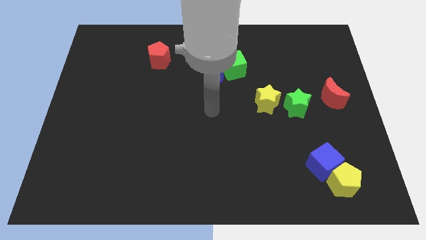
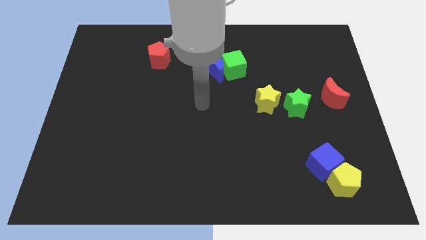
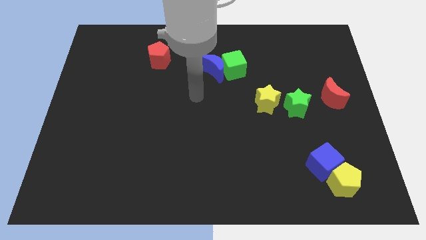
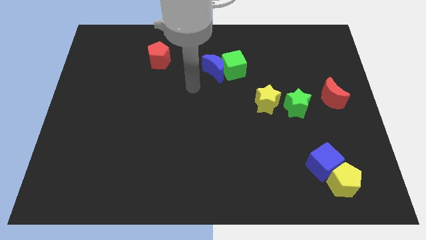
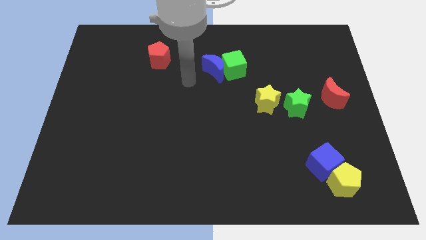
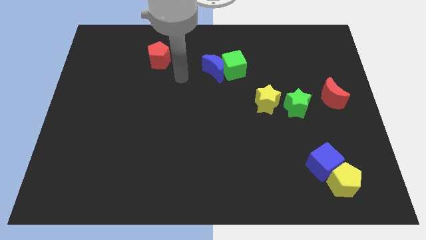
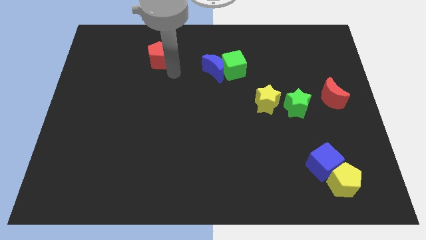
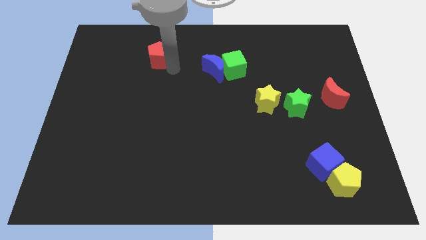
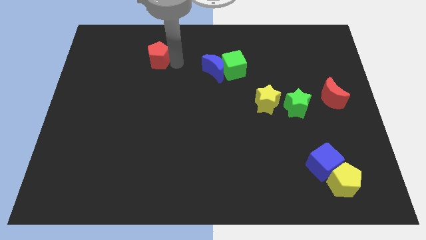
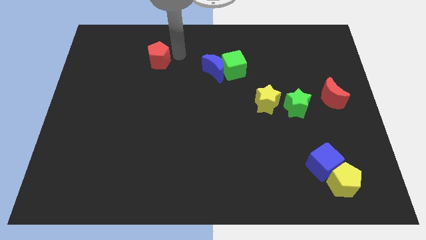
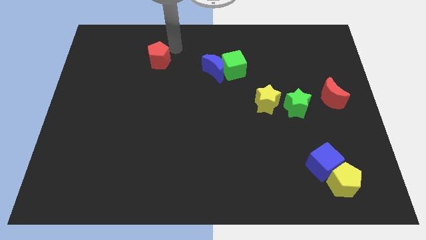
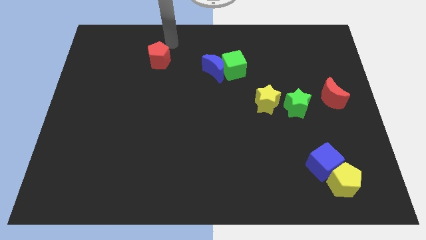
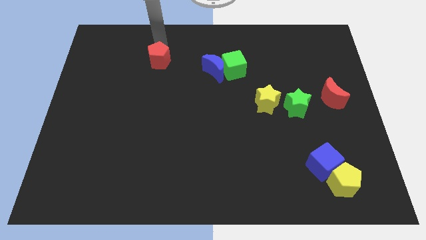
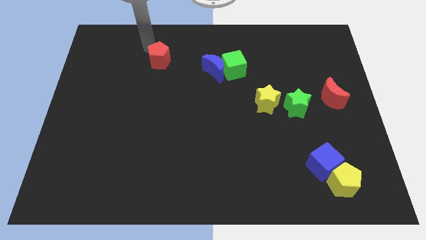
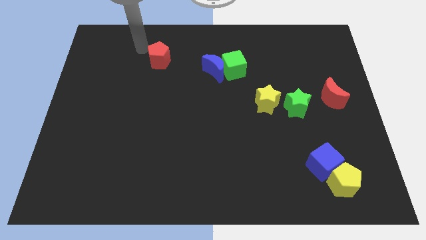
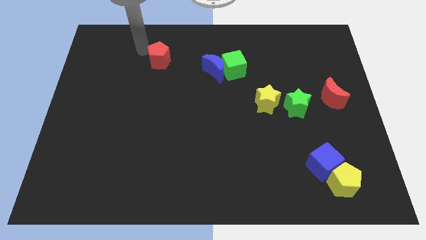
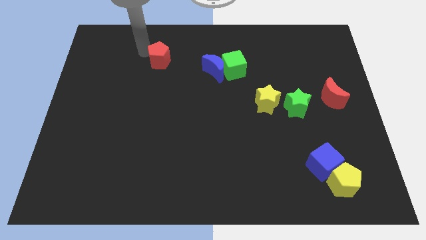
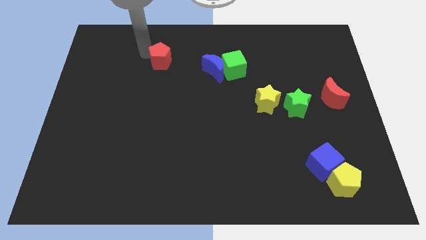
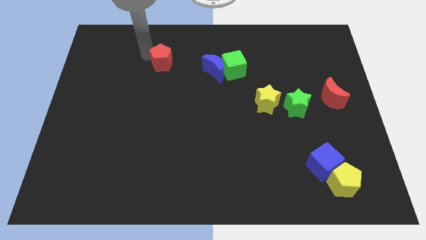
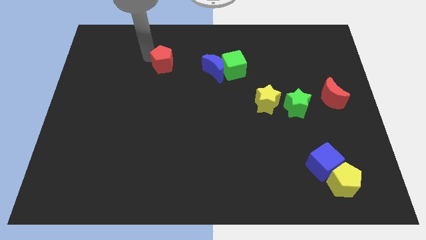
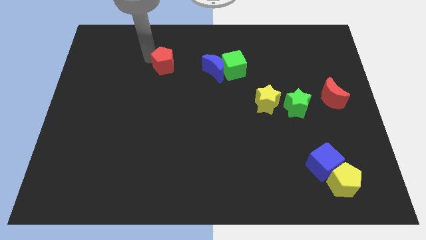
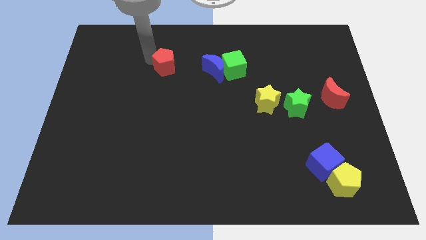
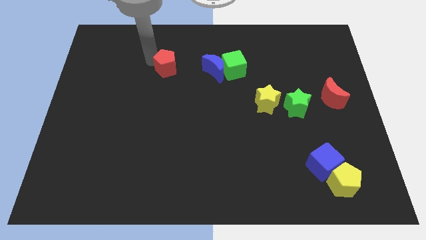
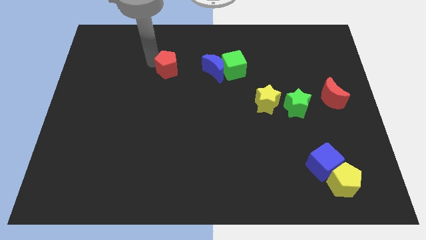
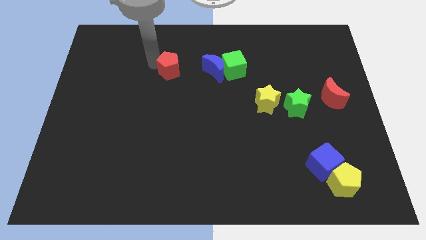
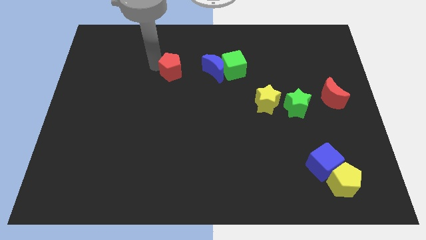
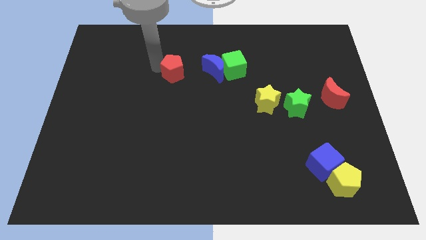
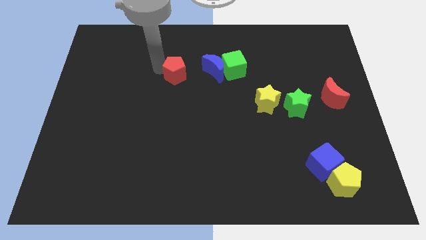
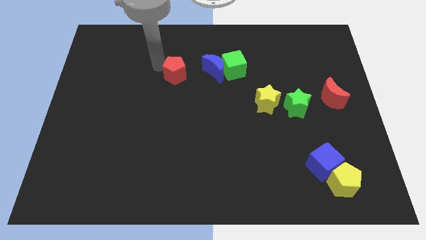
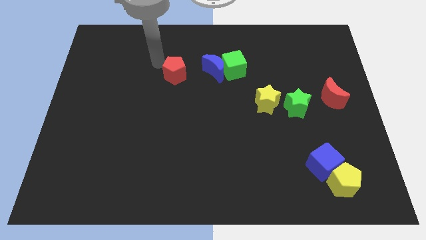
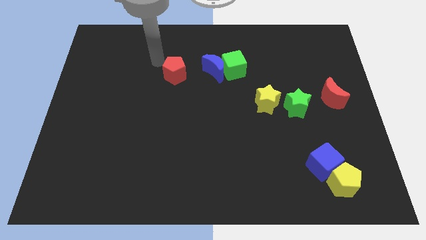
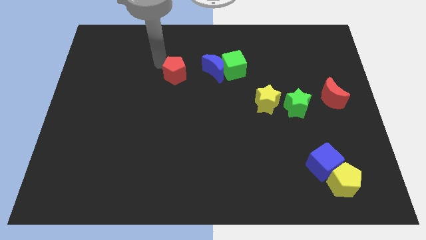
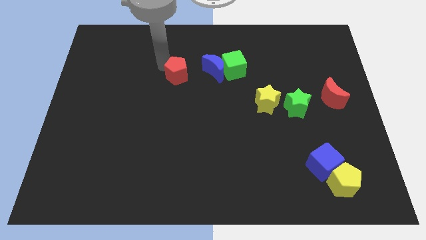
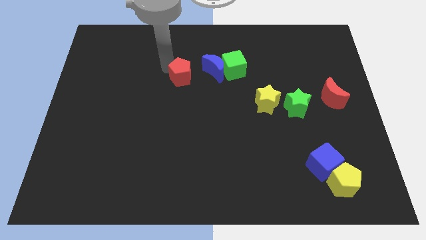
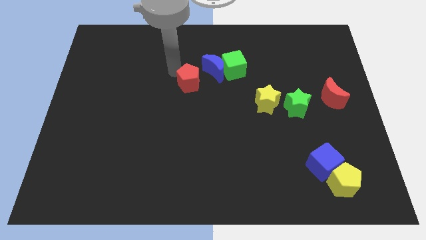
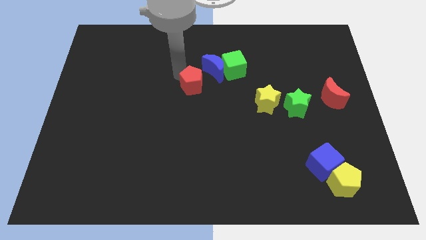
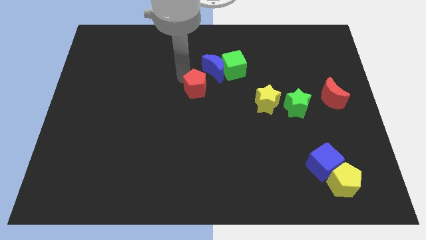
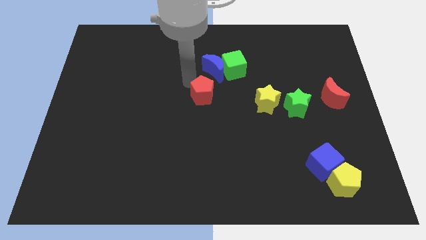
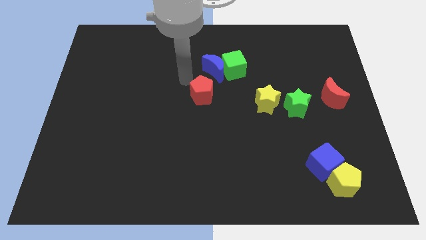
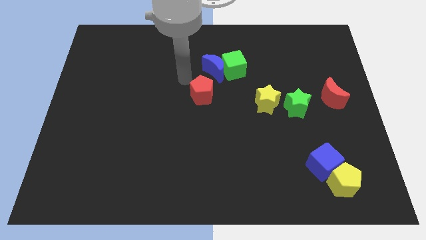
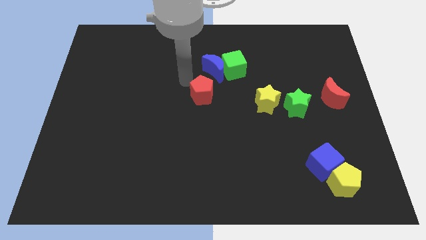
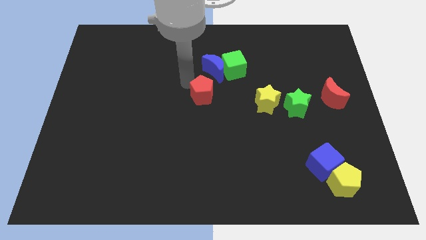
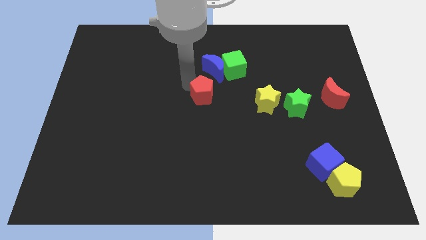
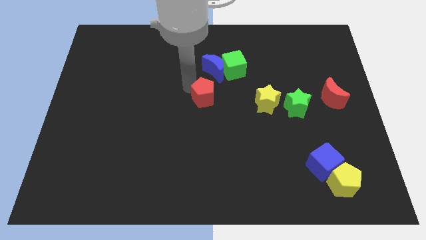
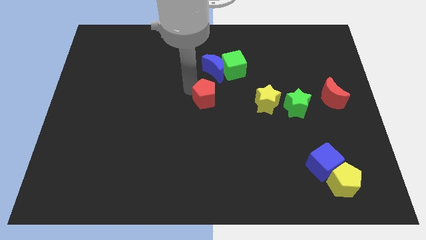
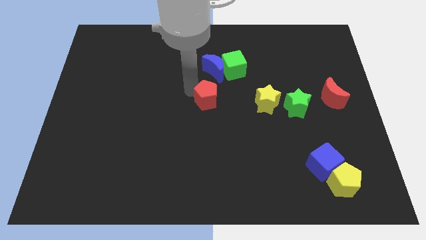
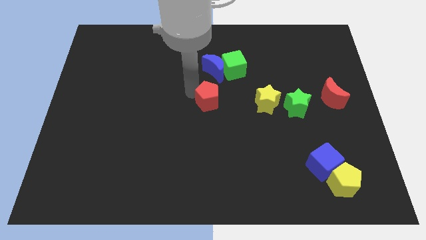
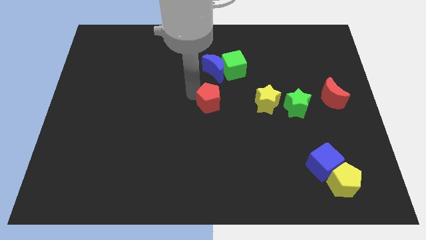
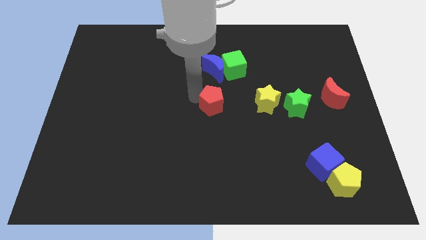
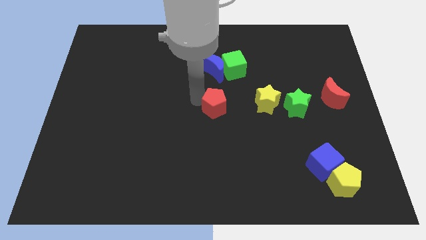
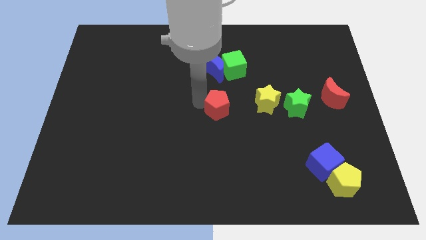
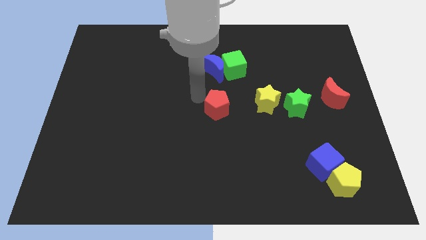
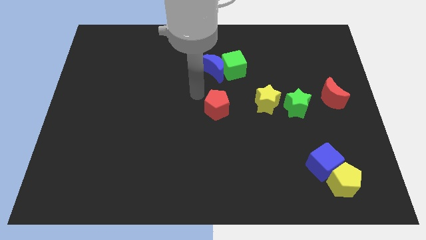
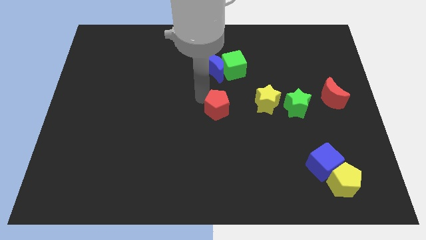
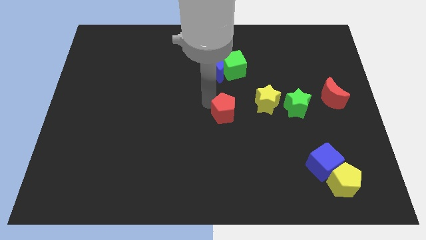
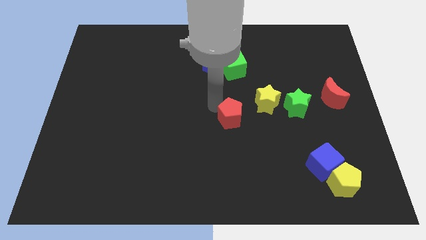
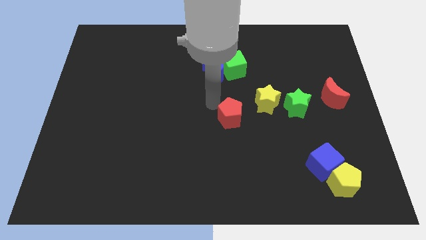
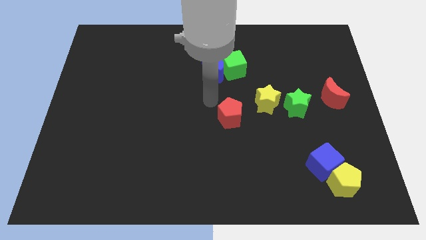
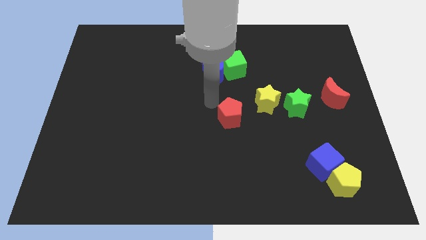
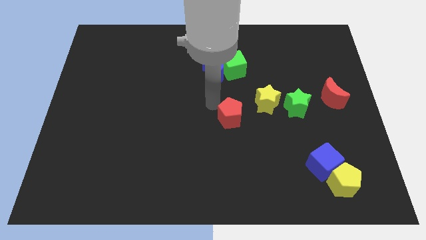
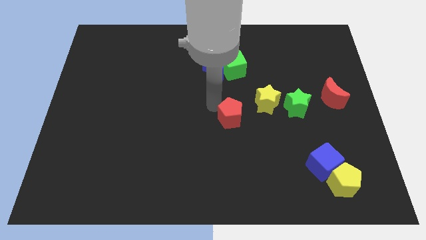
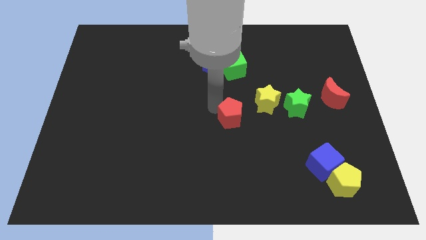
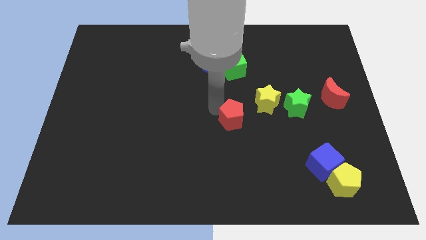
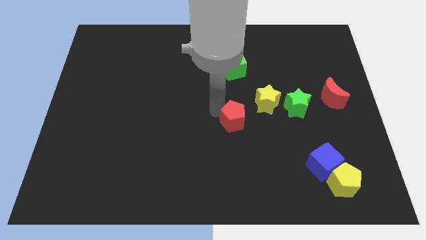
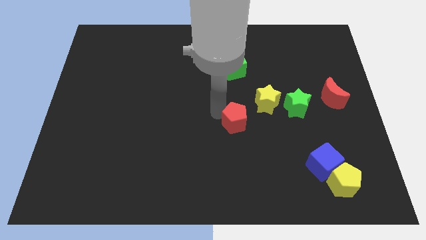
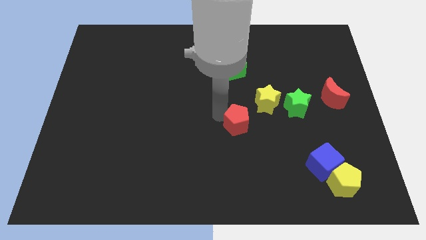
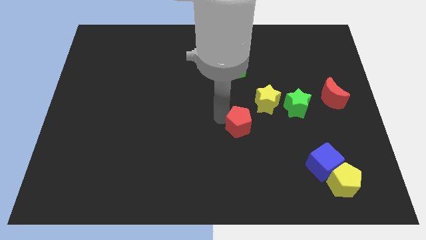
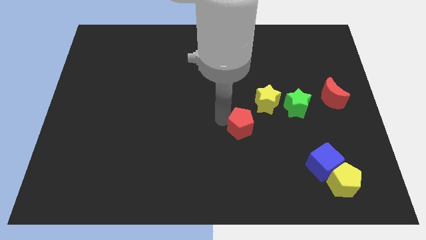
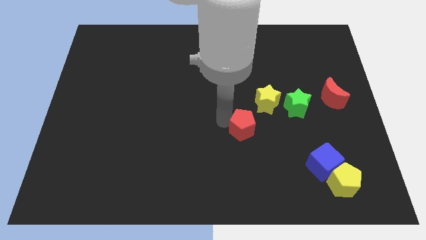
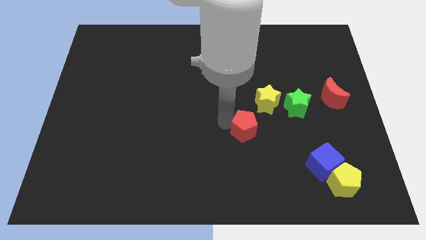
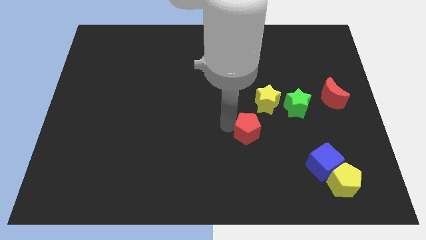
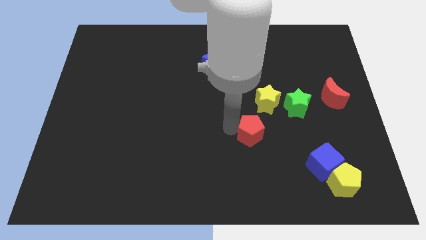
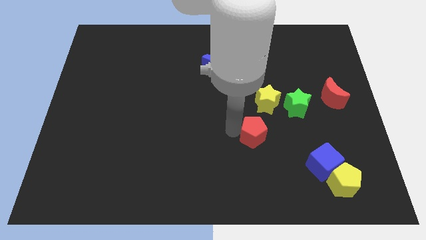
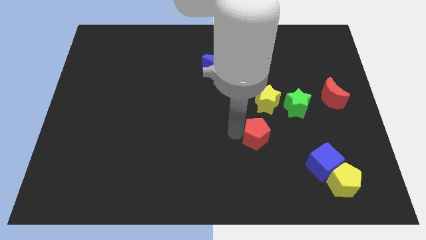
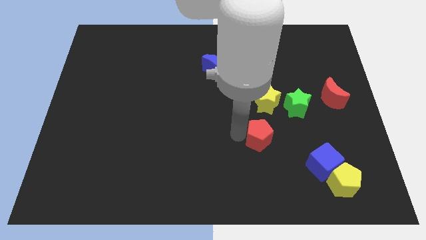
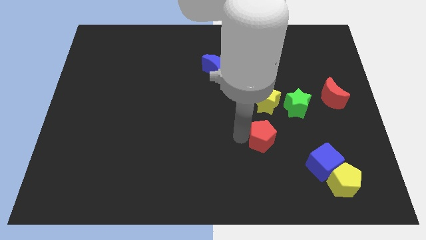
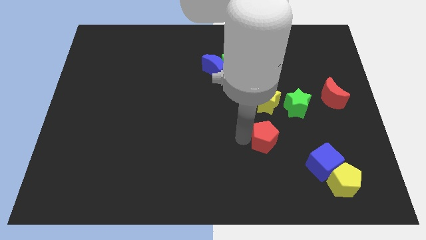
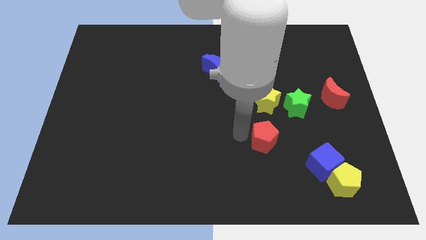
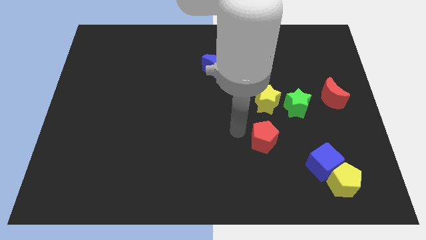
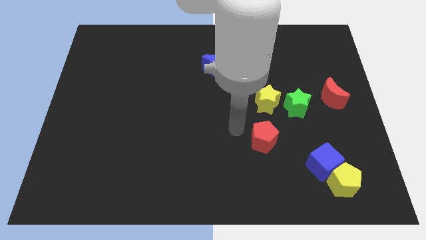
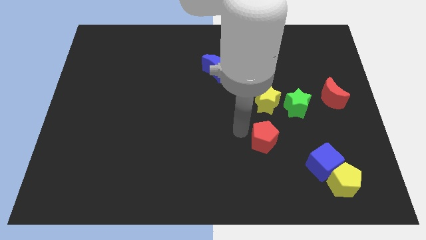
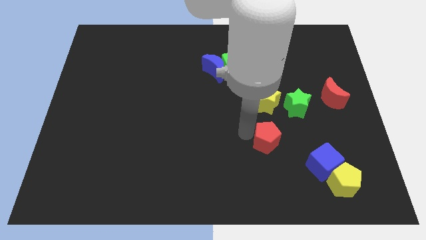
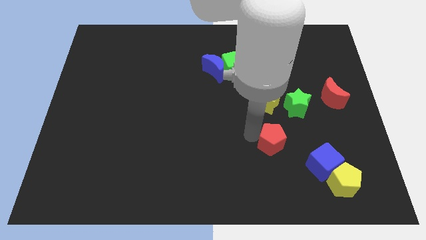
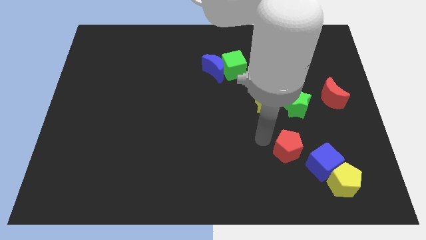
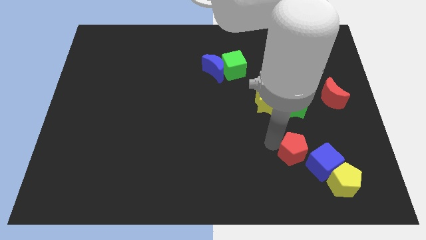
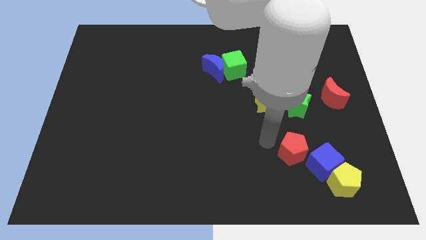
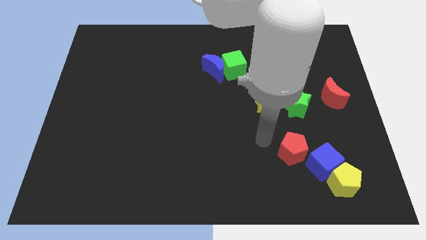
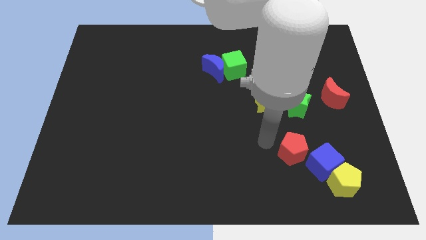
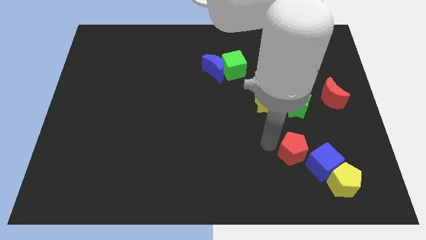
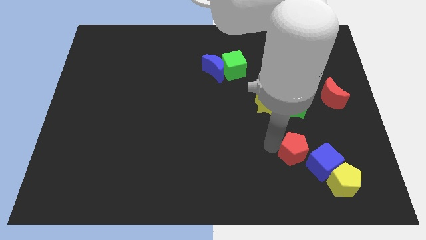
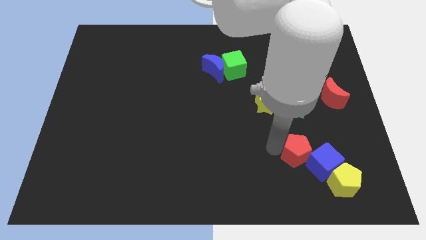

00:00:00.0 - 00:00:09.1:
move the red pentagon close to the blue cube
